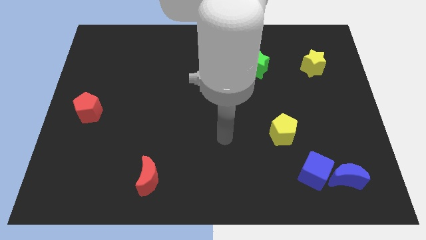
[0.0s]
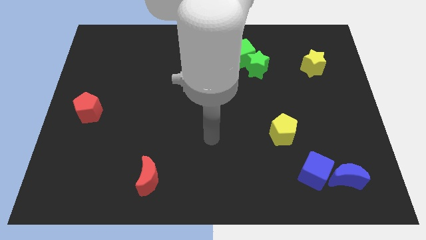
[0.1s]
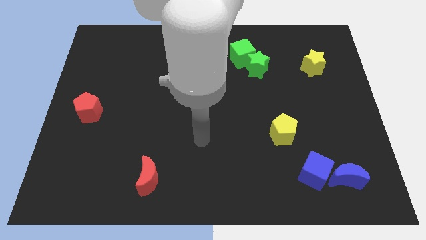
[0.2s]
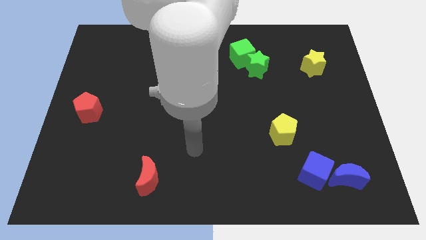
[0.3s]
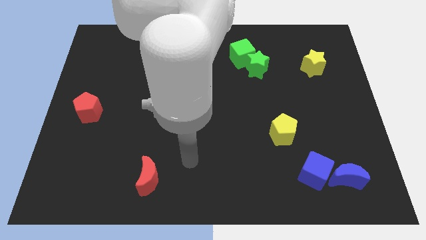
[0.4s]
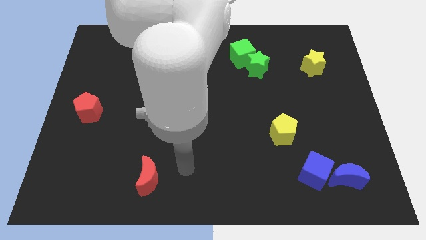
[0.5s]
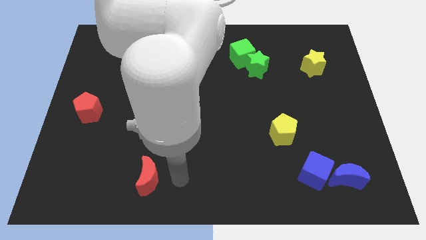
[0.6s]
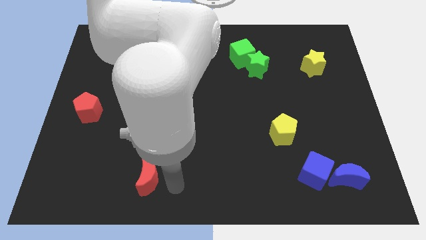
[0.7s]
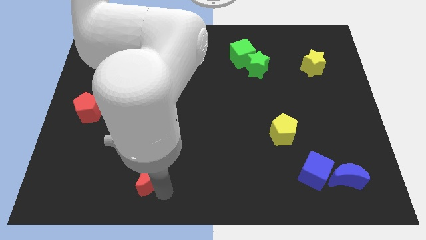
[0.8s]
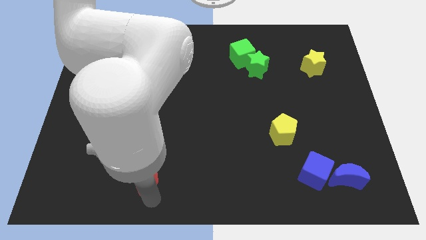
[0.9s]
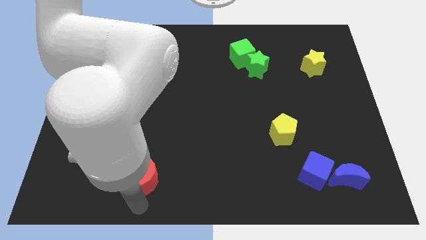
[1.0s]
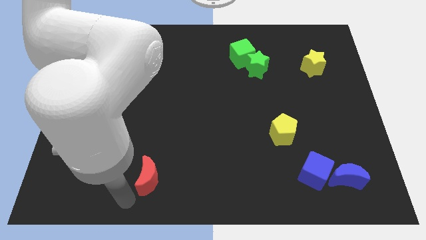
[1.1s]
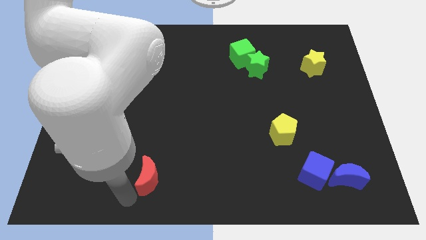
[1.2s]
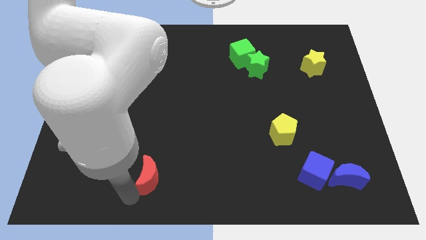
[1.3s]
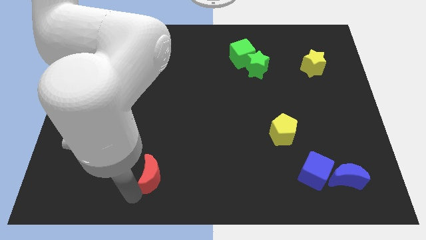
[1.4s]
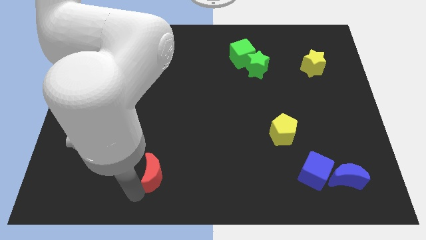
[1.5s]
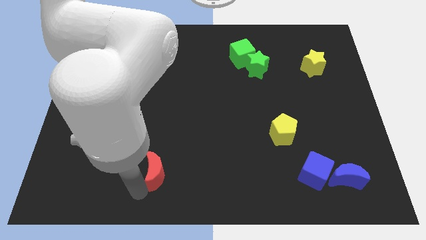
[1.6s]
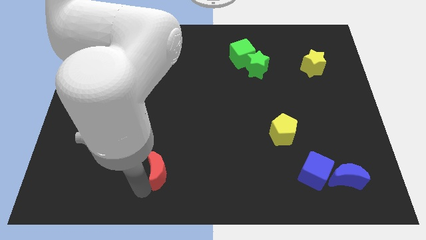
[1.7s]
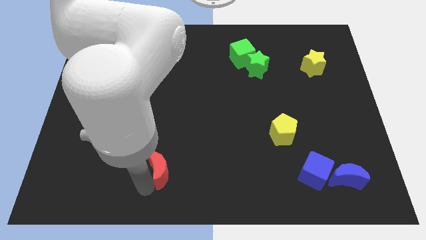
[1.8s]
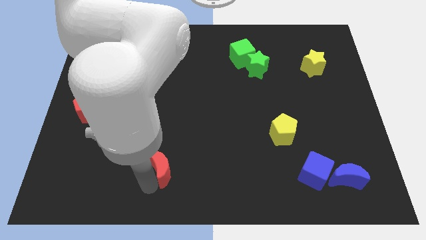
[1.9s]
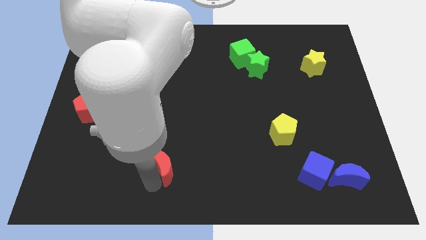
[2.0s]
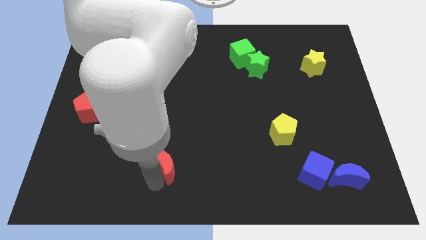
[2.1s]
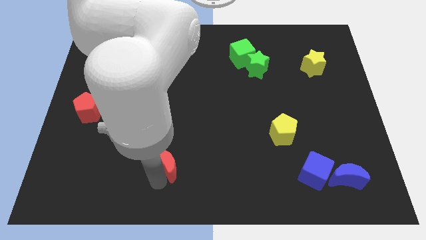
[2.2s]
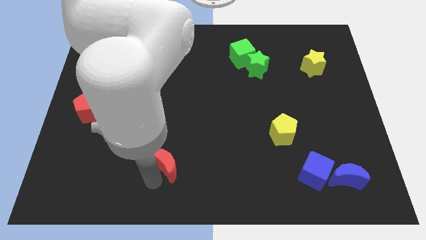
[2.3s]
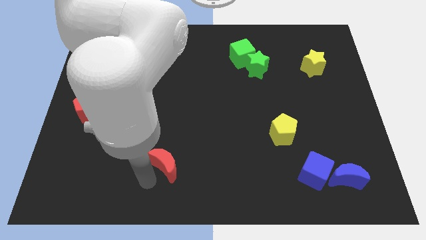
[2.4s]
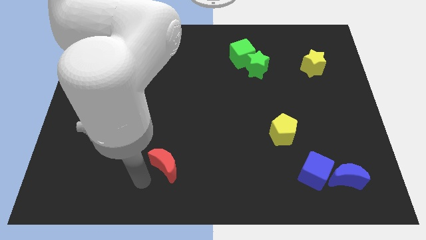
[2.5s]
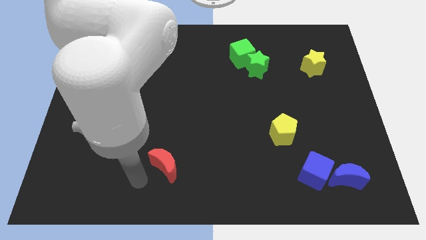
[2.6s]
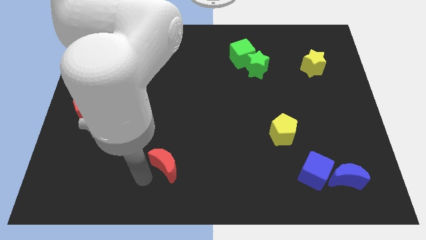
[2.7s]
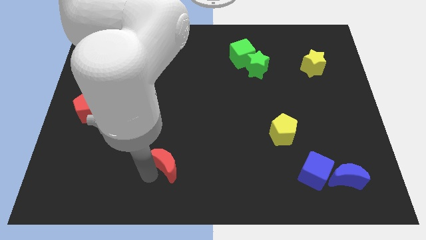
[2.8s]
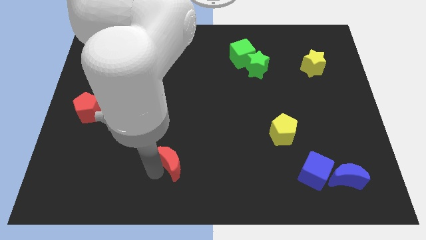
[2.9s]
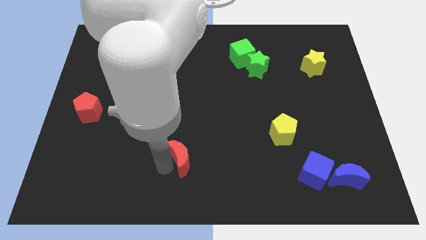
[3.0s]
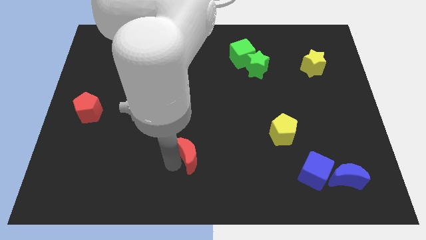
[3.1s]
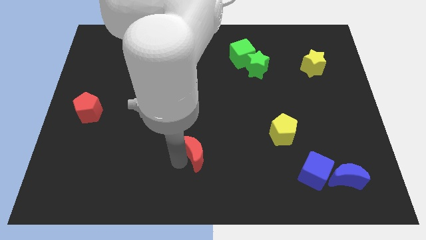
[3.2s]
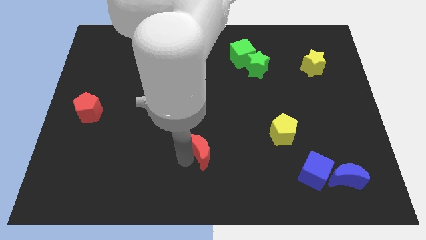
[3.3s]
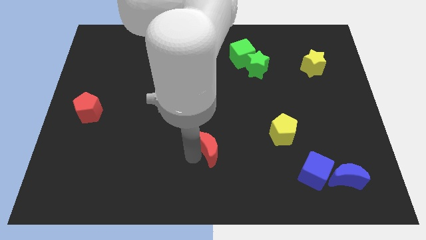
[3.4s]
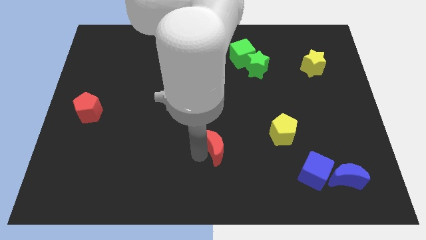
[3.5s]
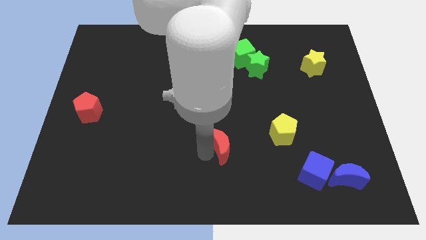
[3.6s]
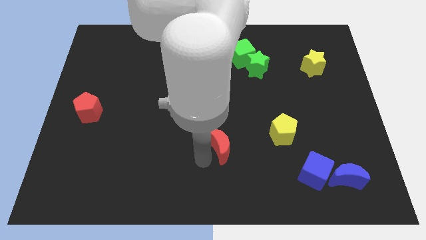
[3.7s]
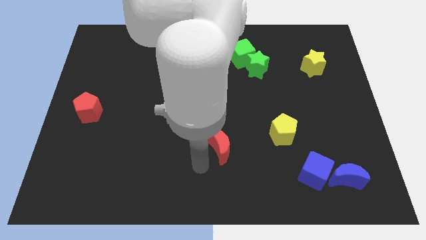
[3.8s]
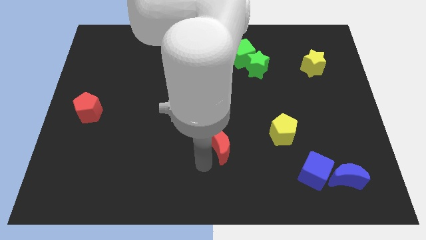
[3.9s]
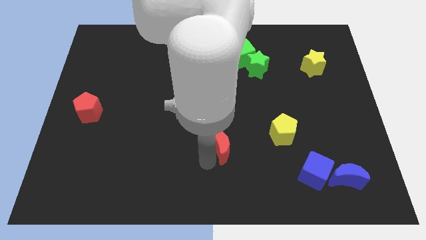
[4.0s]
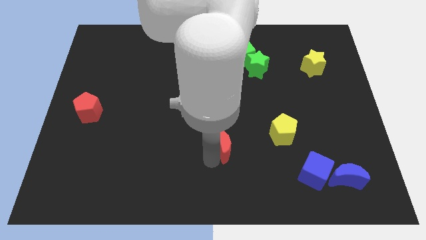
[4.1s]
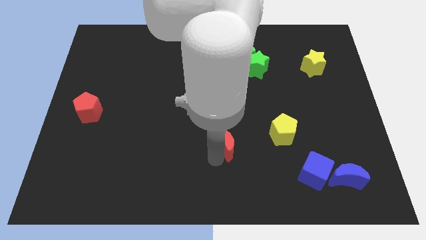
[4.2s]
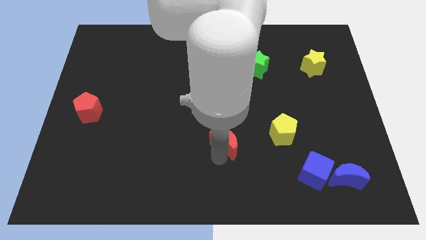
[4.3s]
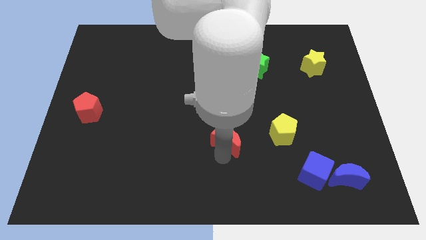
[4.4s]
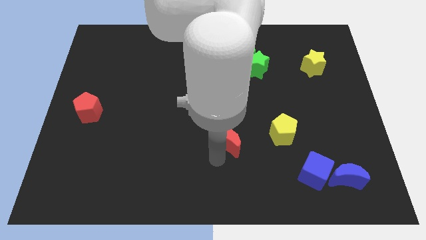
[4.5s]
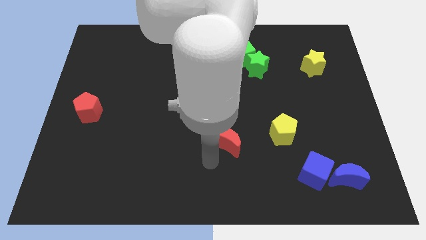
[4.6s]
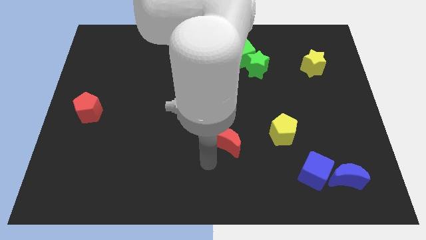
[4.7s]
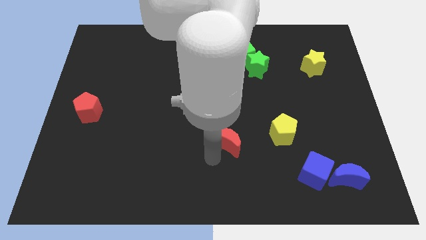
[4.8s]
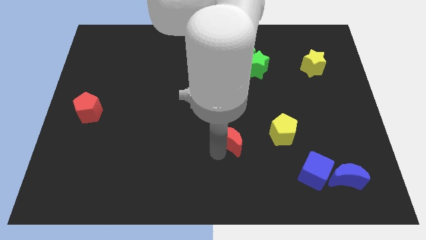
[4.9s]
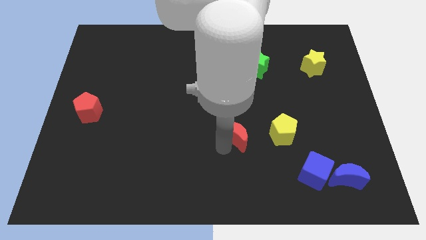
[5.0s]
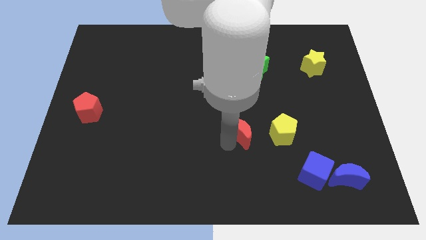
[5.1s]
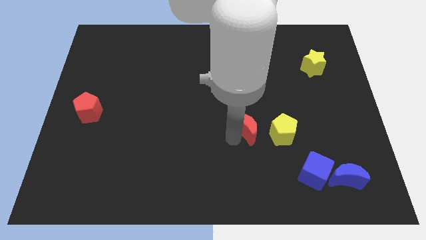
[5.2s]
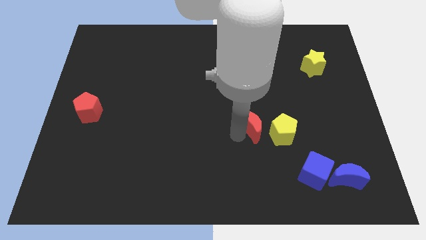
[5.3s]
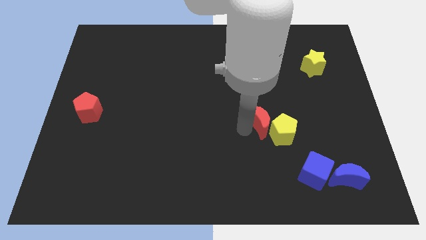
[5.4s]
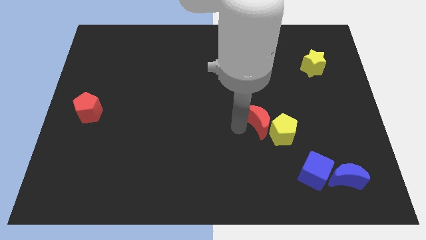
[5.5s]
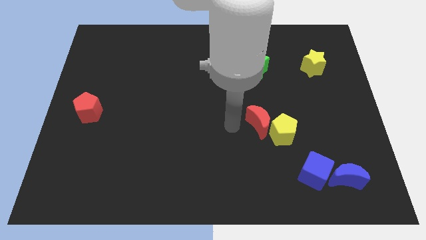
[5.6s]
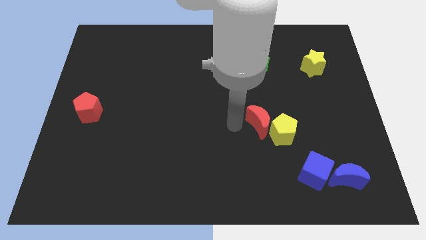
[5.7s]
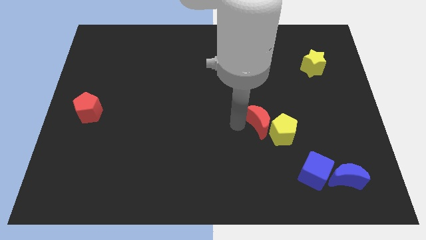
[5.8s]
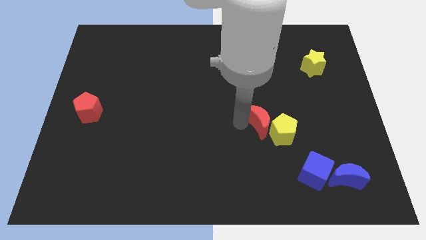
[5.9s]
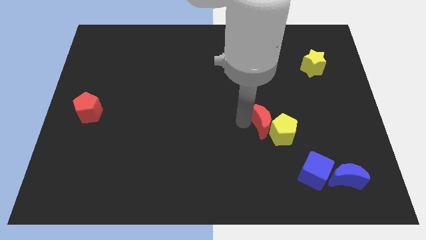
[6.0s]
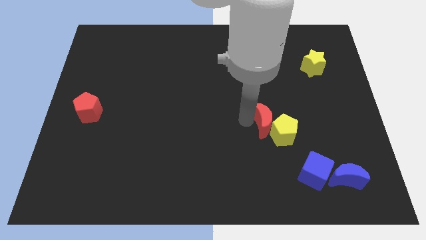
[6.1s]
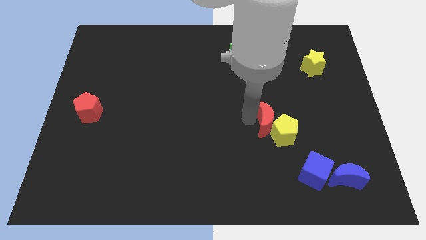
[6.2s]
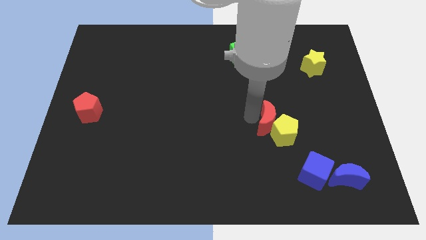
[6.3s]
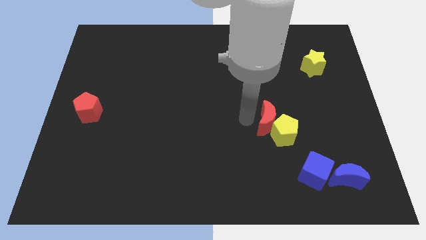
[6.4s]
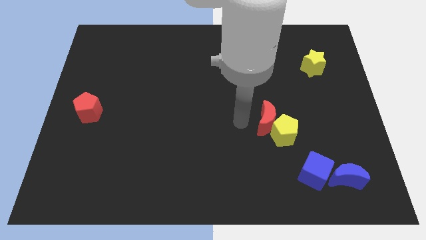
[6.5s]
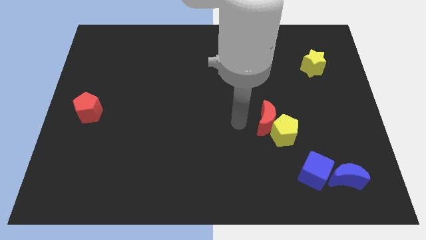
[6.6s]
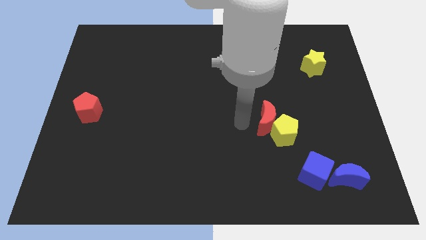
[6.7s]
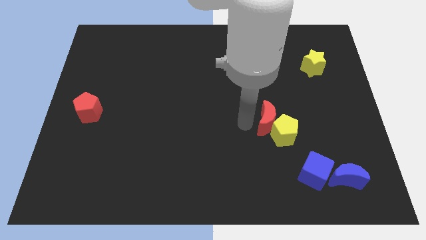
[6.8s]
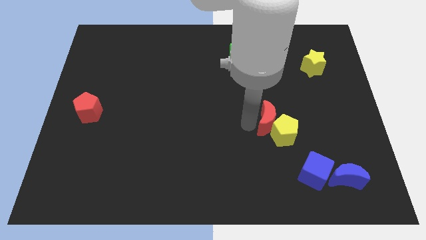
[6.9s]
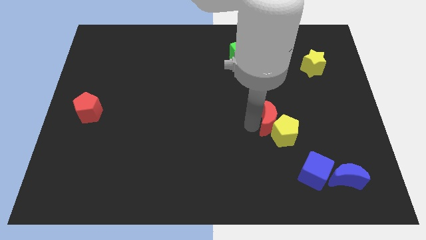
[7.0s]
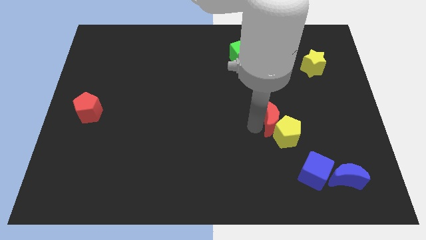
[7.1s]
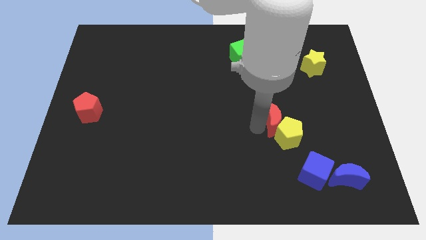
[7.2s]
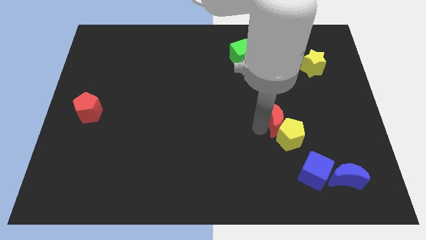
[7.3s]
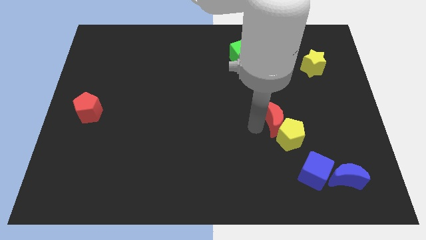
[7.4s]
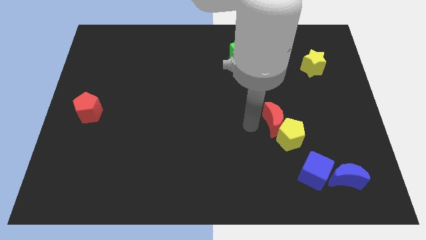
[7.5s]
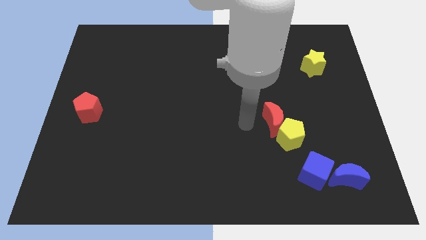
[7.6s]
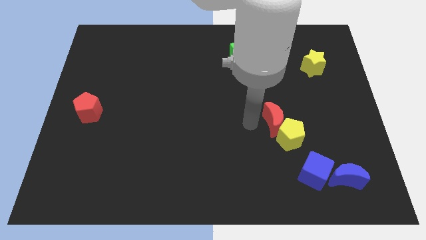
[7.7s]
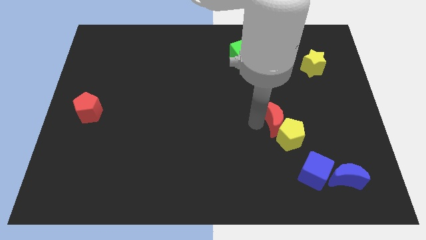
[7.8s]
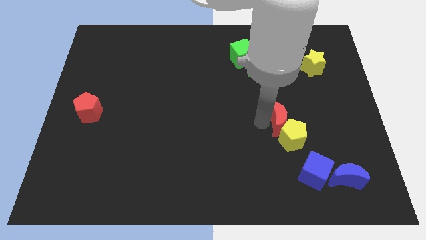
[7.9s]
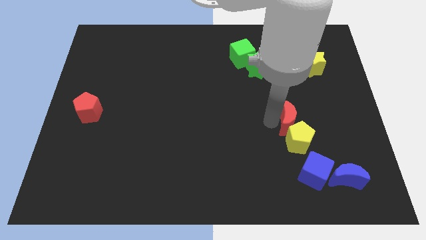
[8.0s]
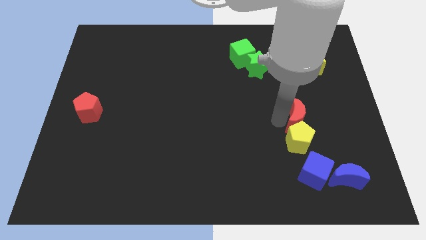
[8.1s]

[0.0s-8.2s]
move the red moon diagonally up and to the right of the yellow pentagon
